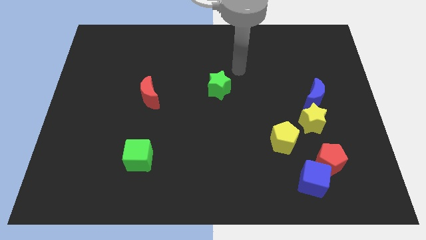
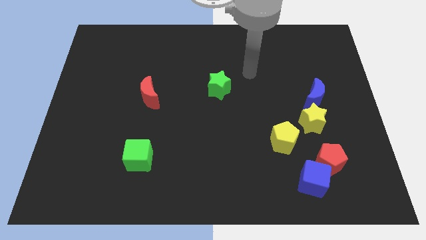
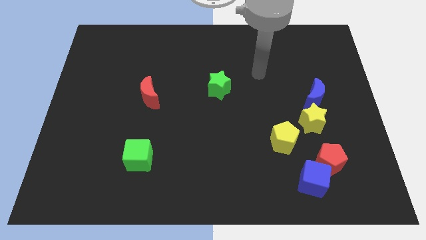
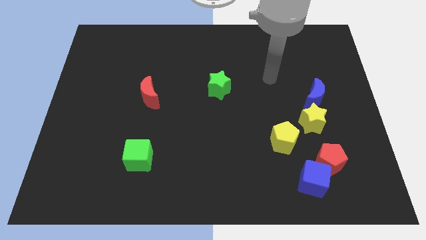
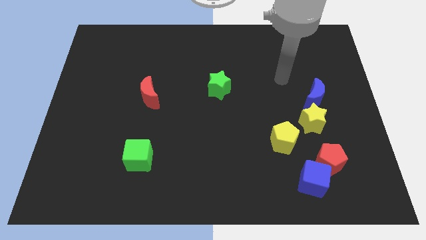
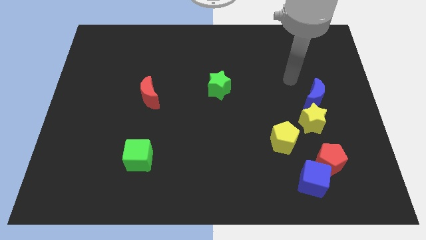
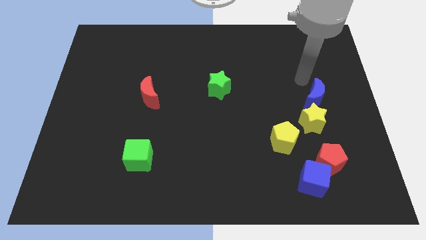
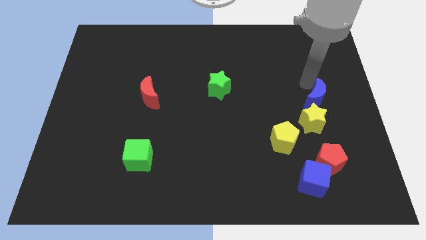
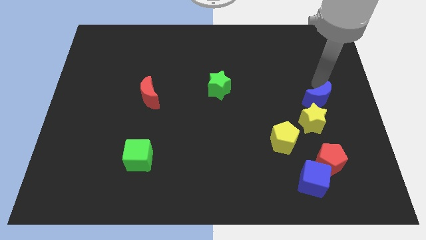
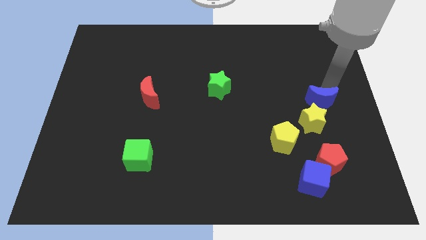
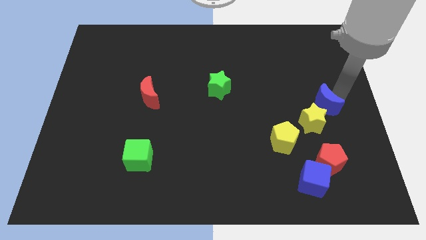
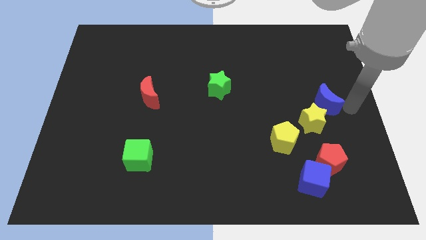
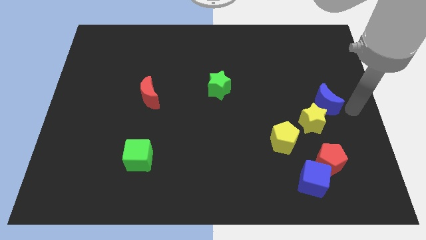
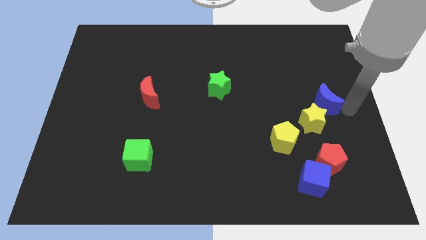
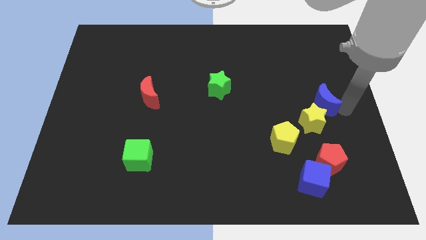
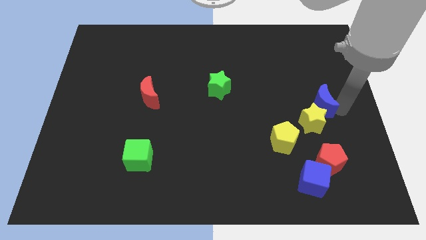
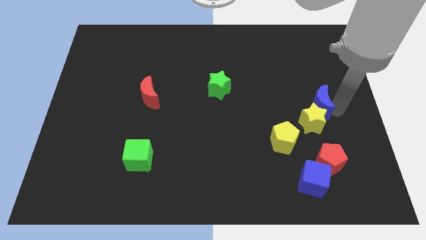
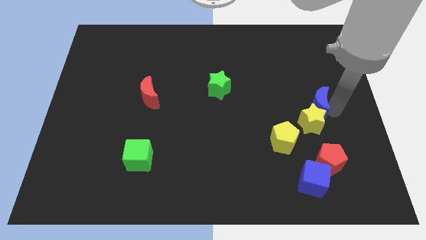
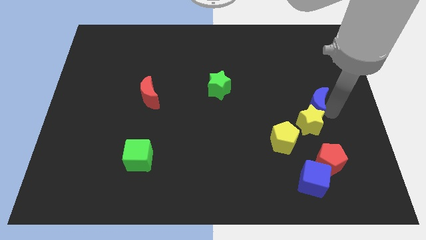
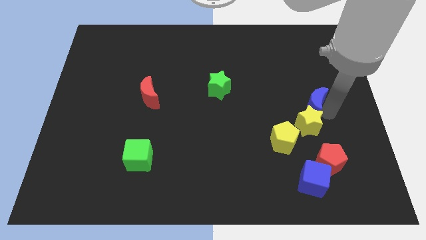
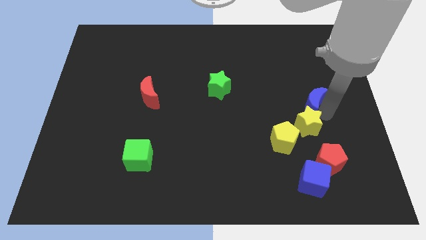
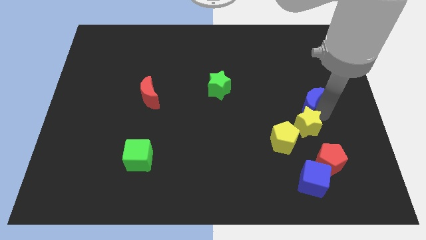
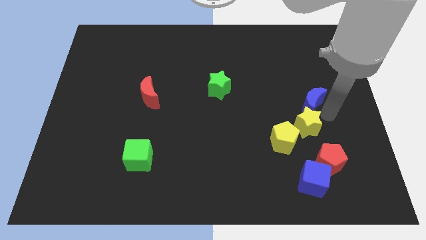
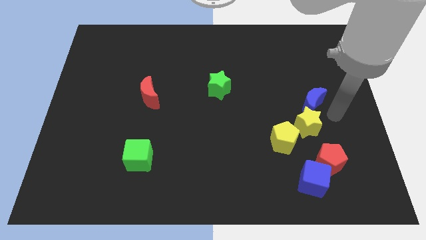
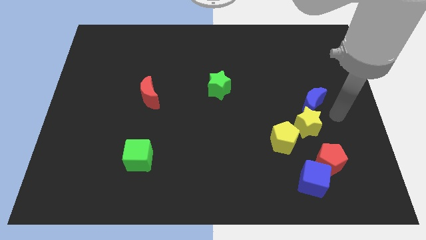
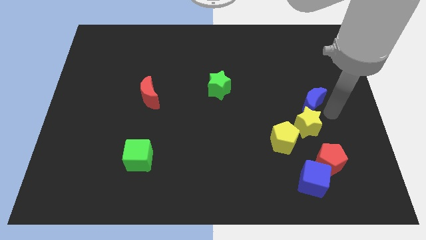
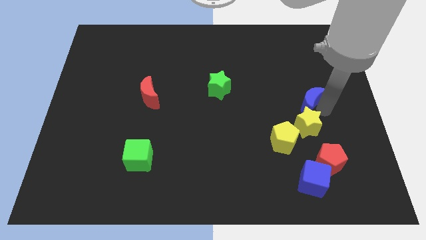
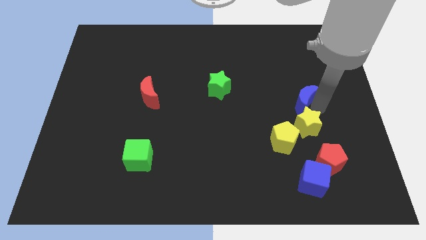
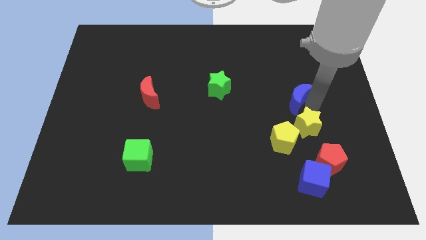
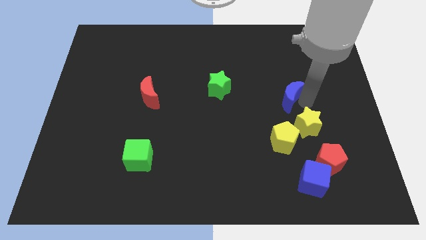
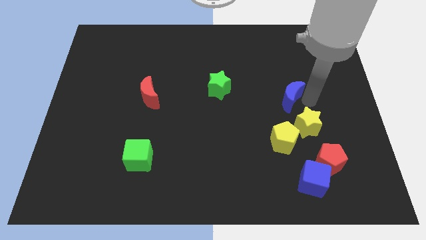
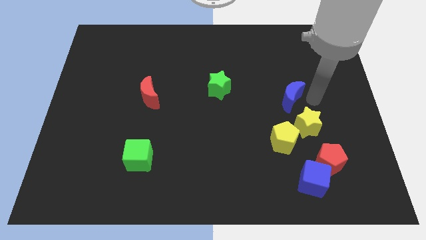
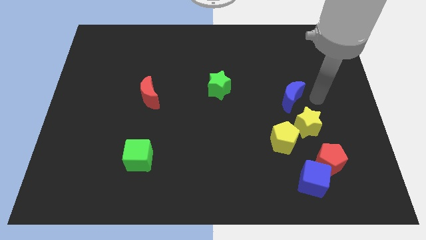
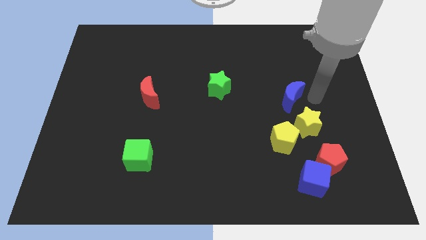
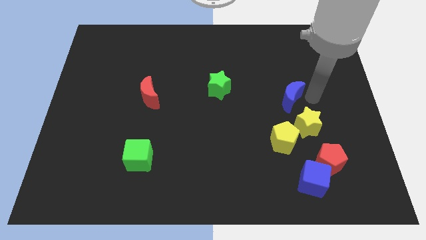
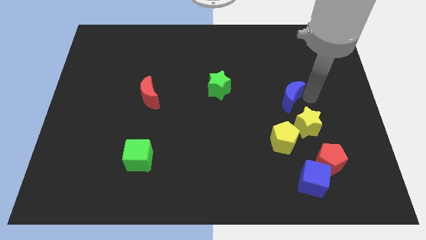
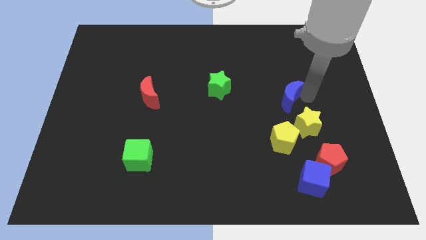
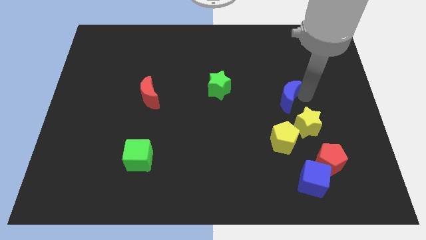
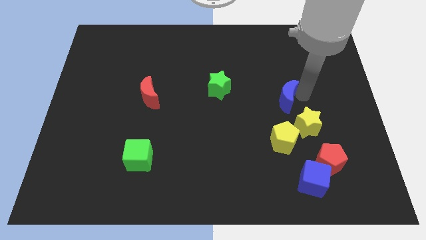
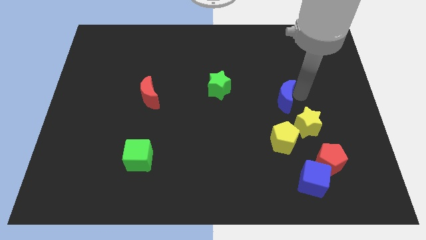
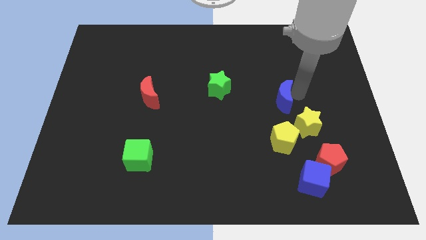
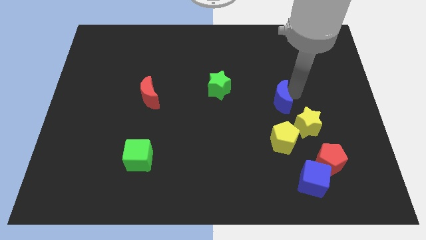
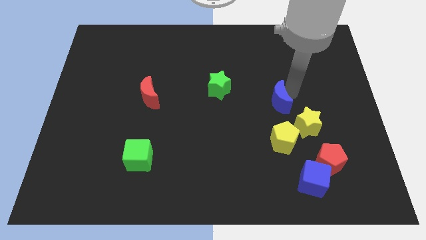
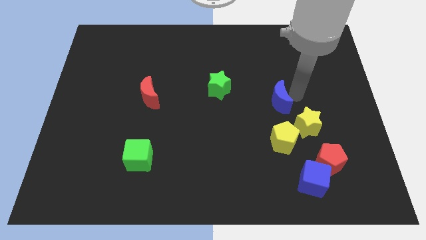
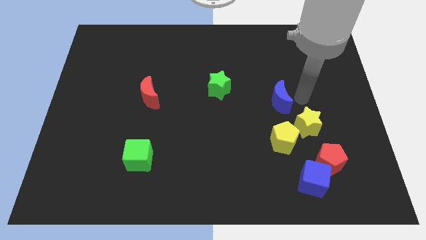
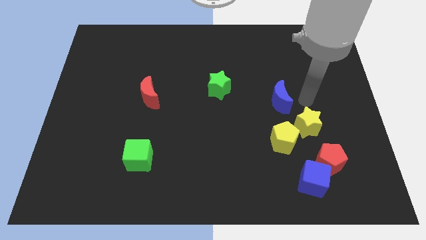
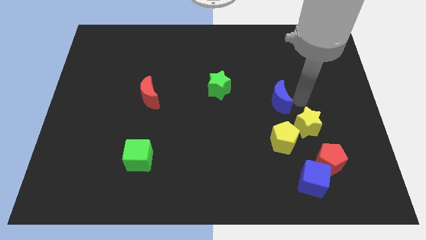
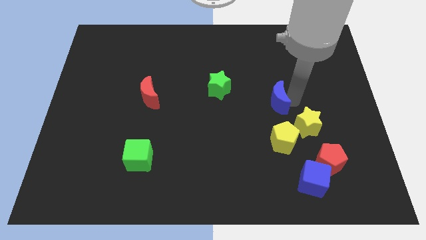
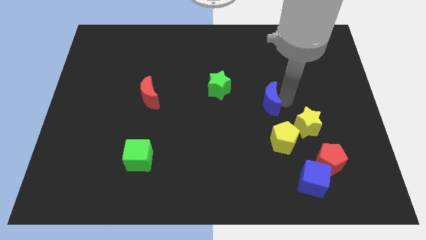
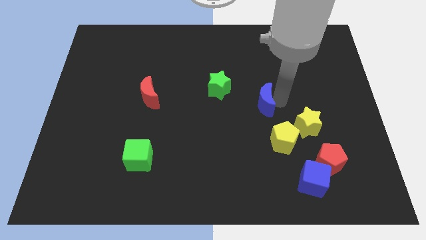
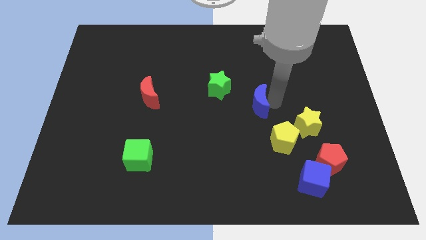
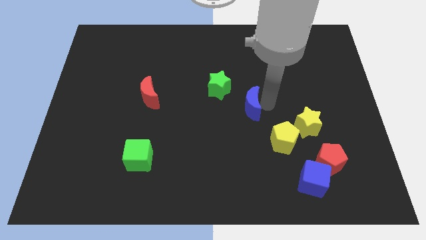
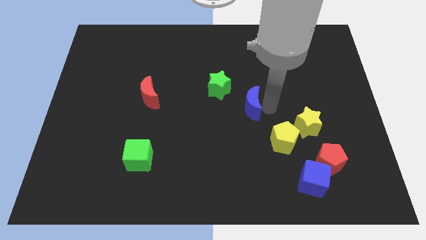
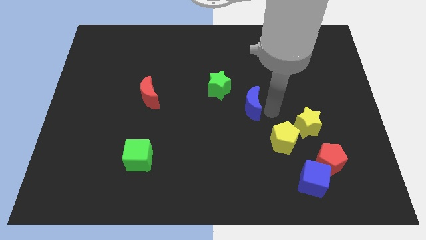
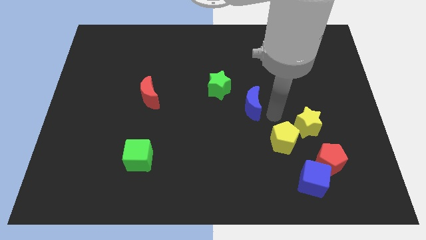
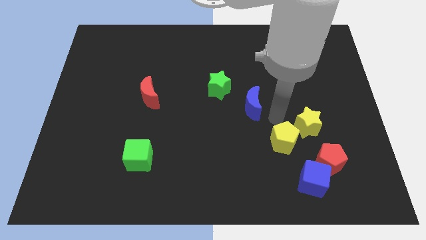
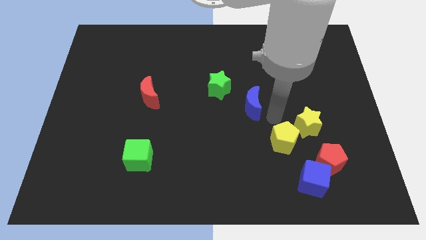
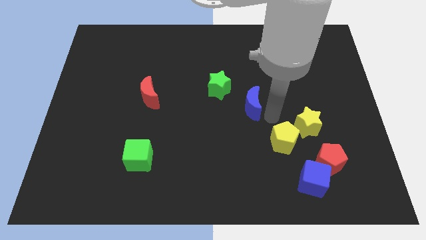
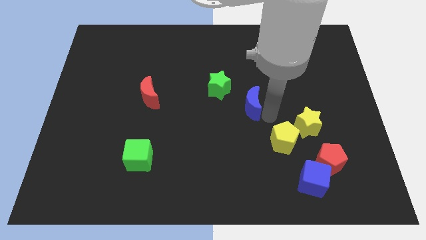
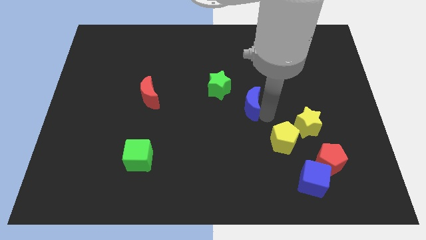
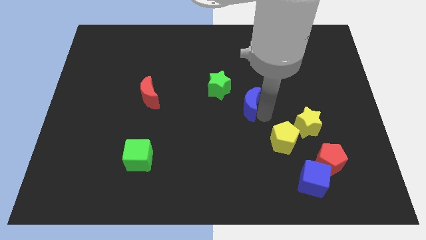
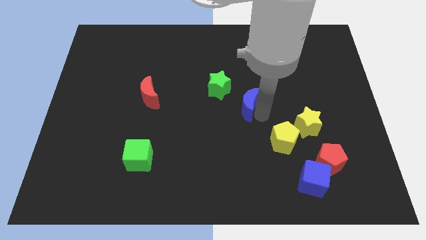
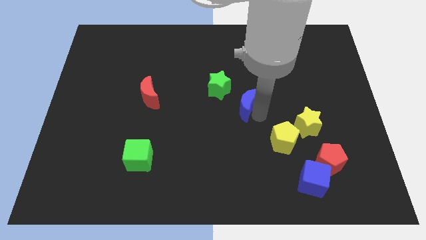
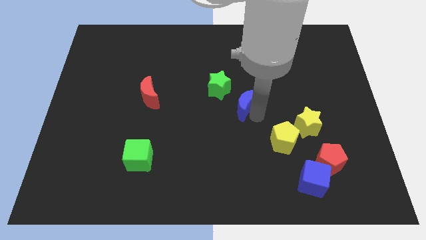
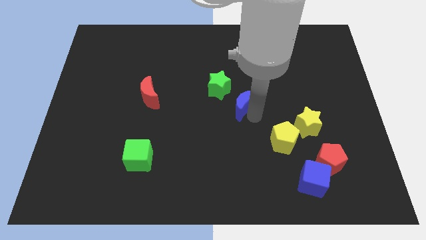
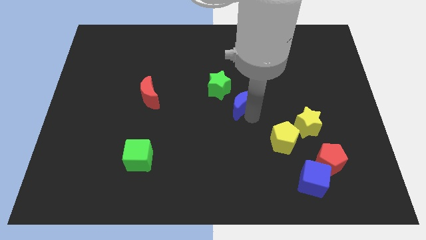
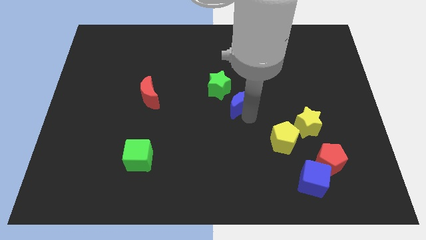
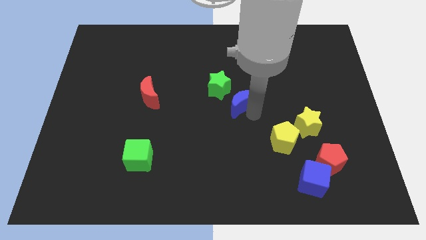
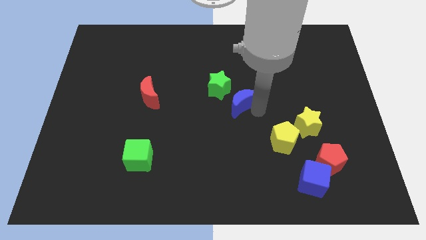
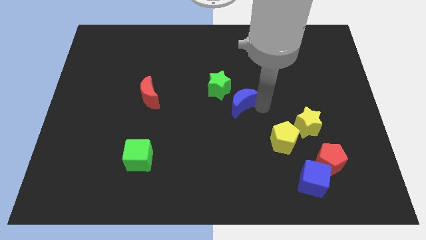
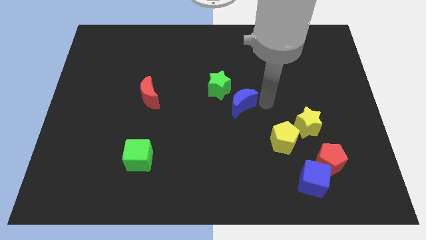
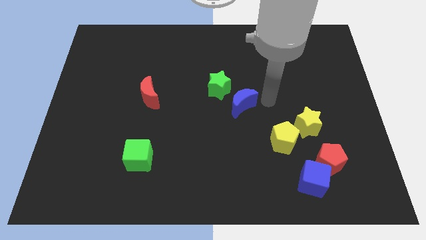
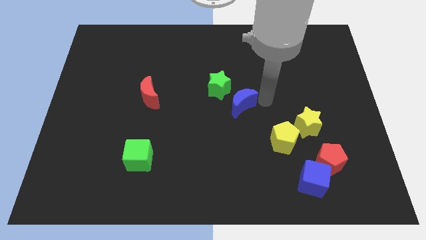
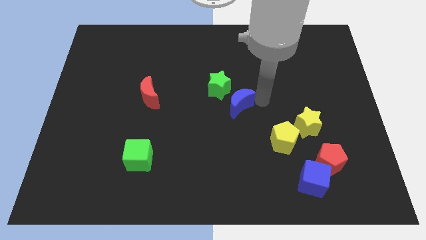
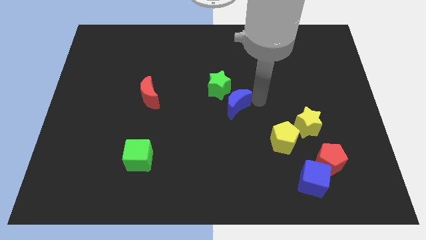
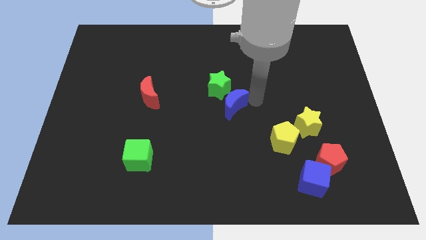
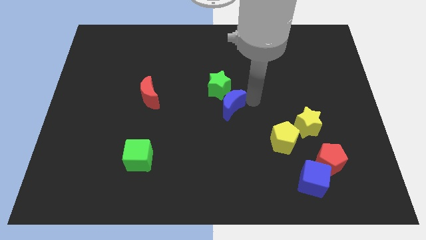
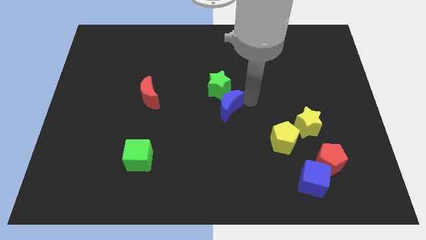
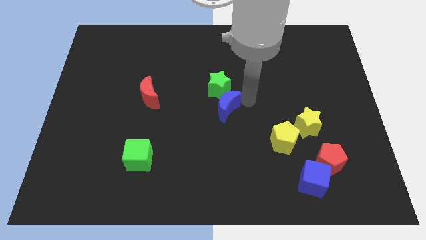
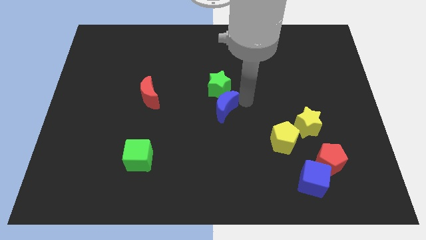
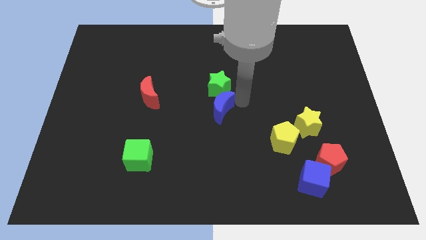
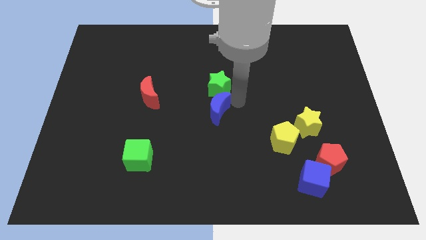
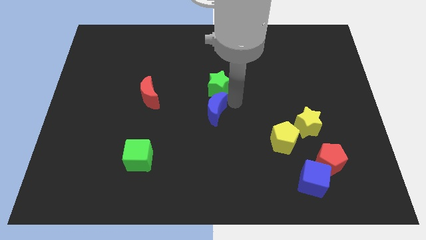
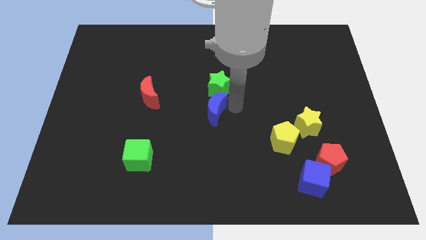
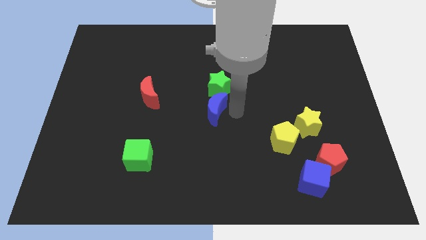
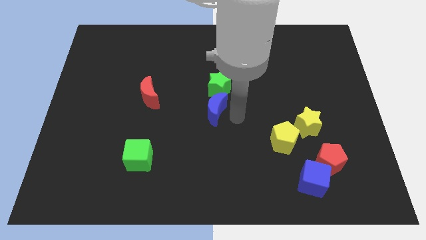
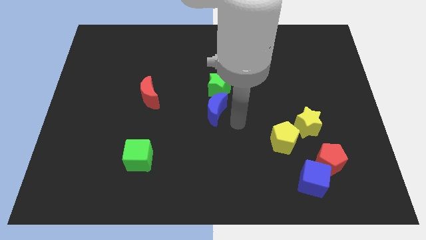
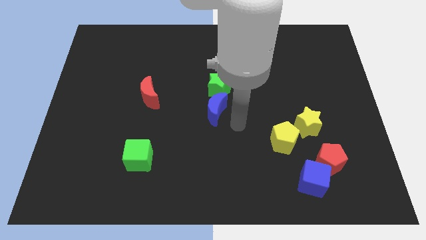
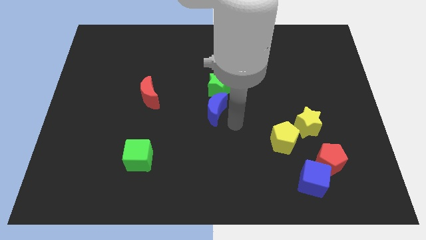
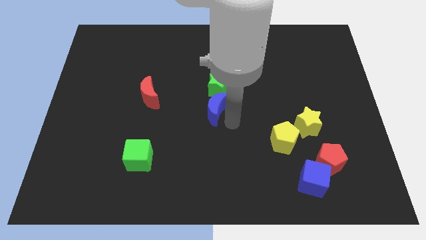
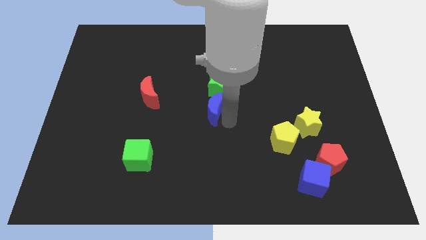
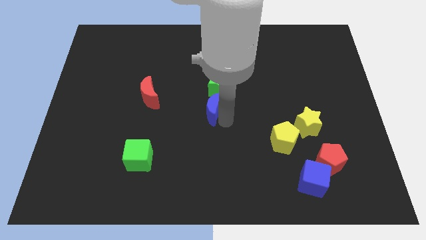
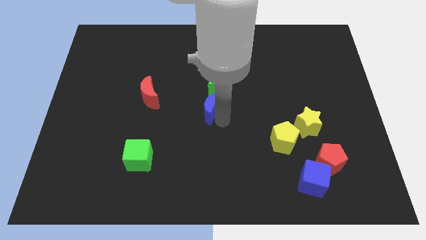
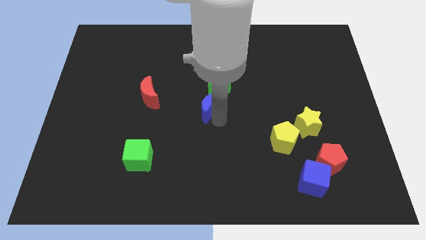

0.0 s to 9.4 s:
put the blue moon just right of the red moon
